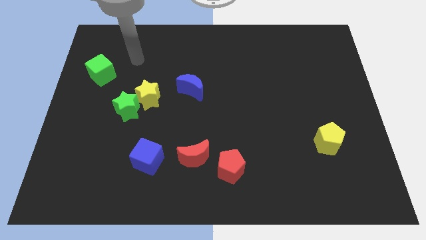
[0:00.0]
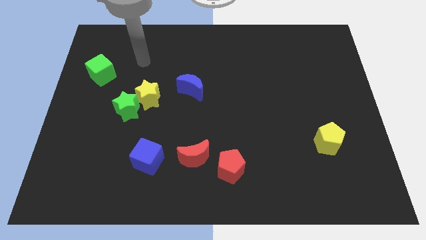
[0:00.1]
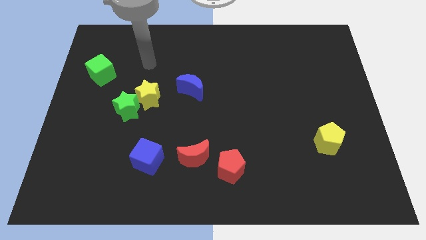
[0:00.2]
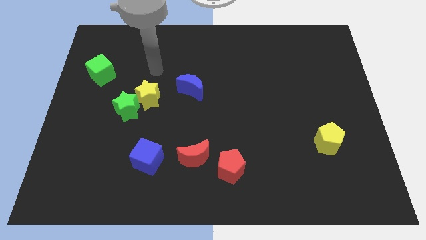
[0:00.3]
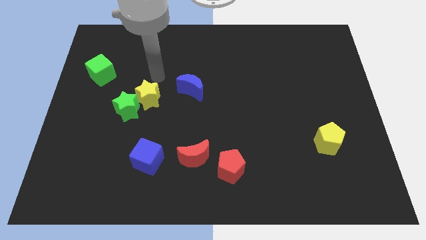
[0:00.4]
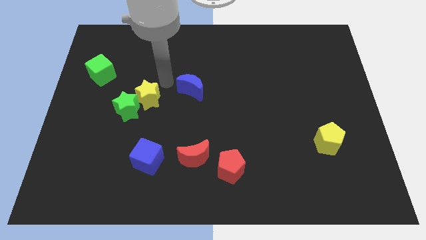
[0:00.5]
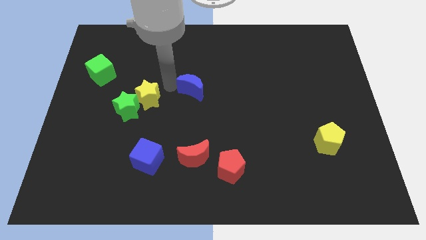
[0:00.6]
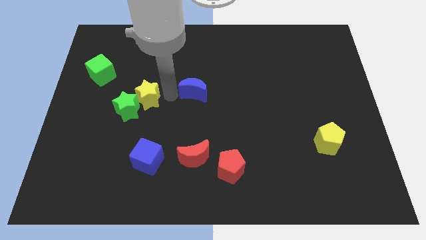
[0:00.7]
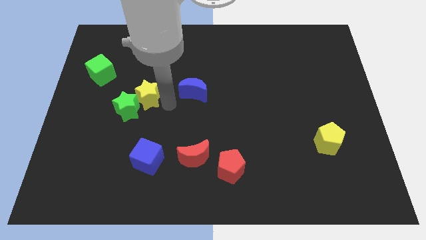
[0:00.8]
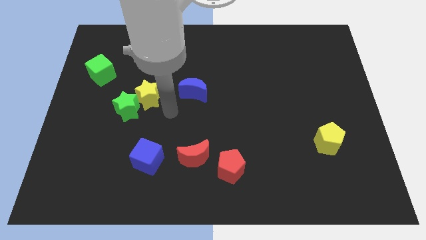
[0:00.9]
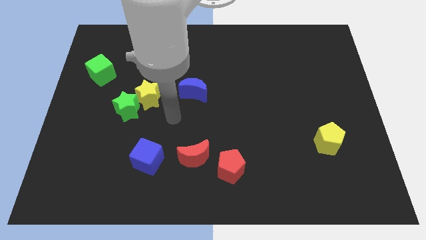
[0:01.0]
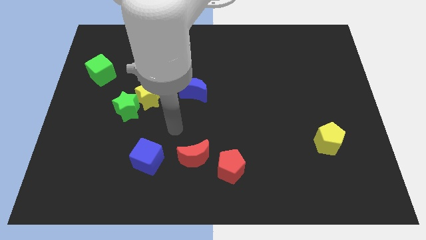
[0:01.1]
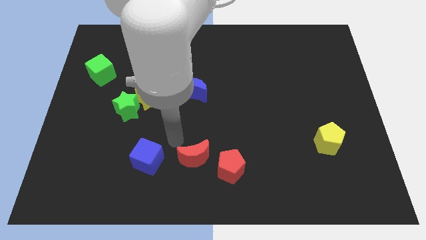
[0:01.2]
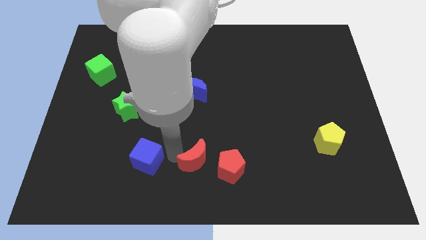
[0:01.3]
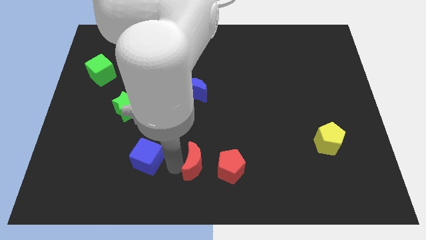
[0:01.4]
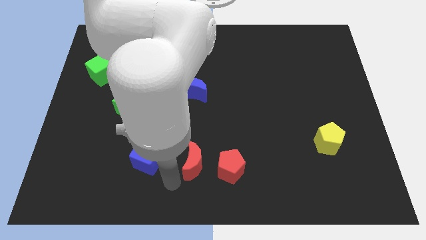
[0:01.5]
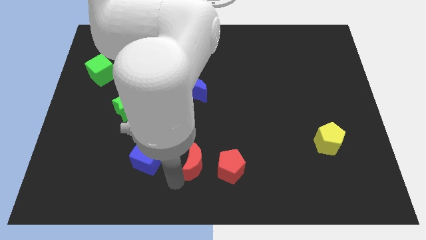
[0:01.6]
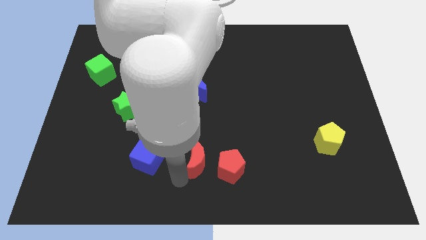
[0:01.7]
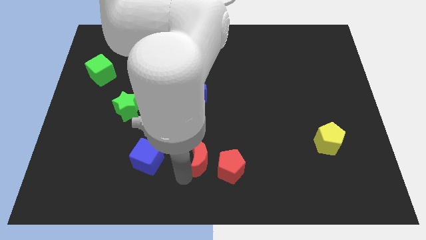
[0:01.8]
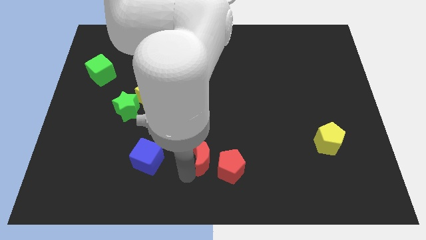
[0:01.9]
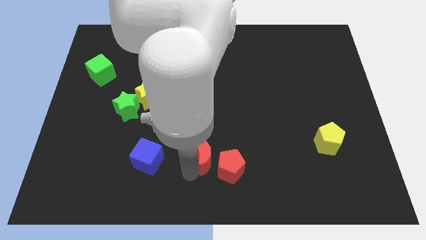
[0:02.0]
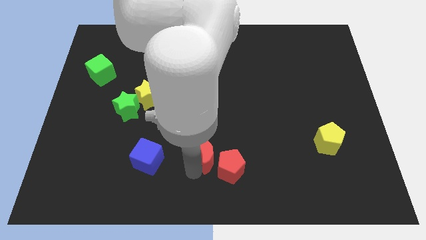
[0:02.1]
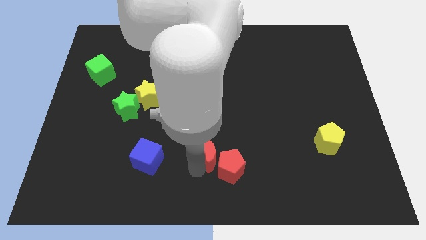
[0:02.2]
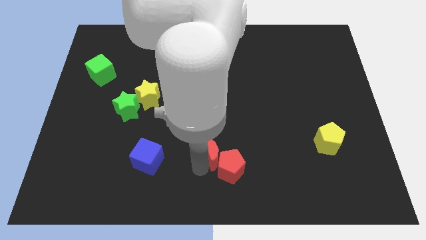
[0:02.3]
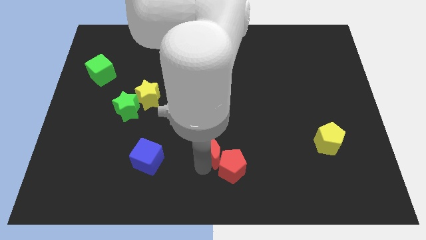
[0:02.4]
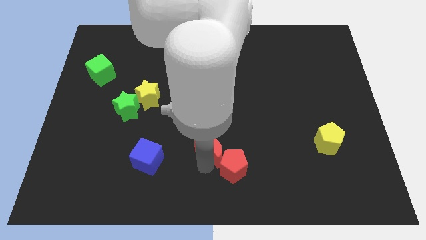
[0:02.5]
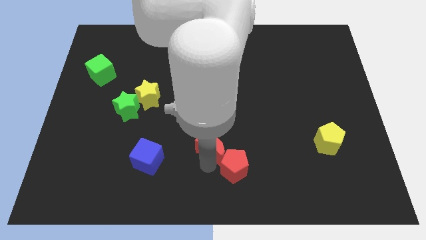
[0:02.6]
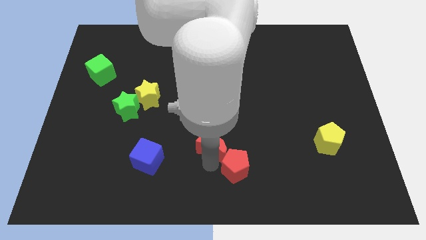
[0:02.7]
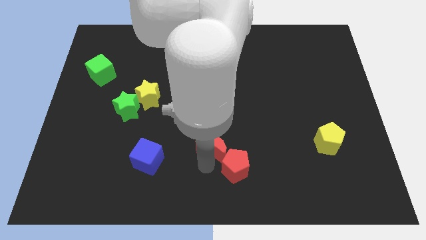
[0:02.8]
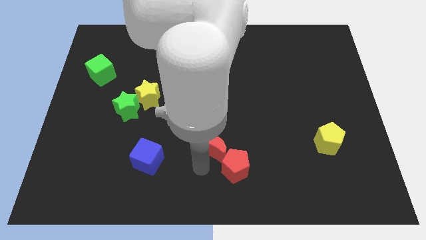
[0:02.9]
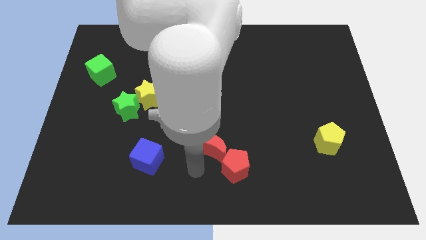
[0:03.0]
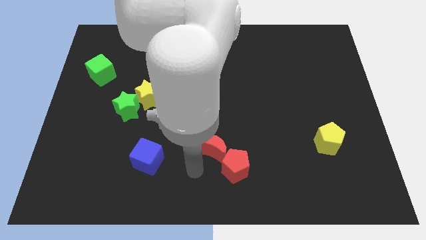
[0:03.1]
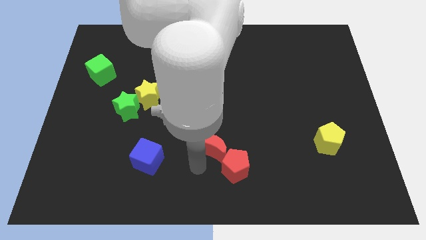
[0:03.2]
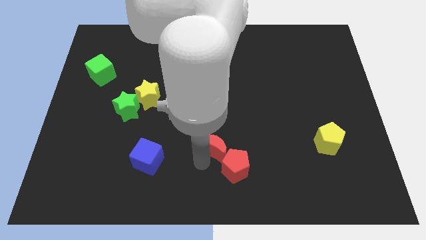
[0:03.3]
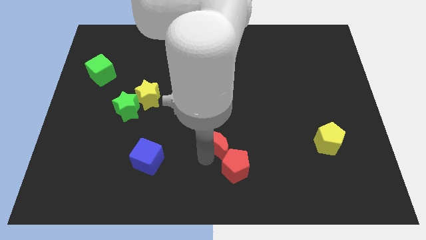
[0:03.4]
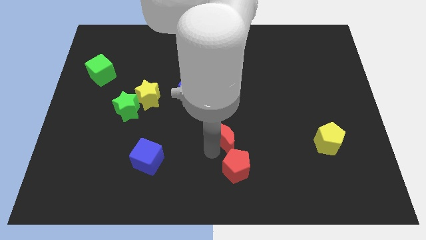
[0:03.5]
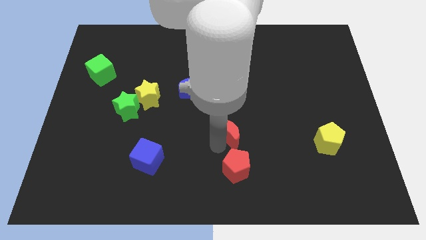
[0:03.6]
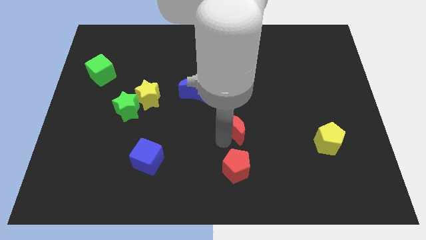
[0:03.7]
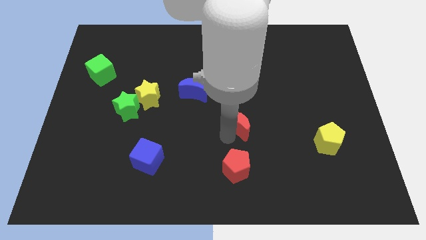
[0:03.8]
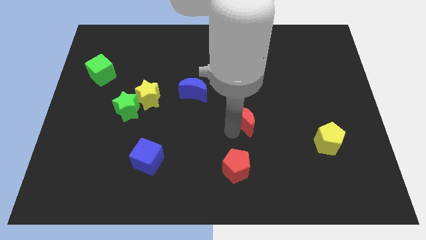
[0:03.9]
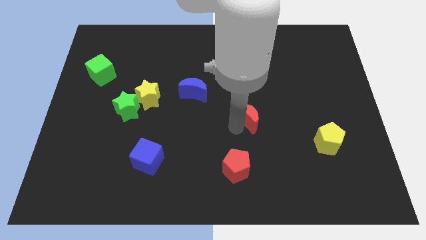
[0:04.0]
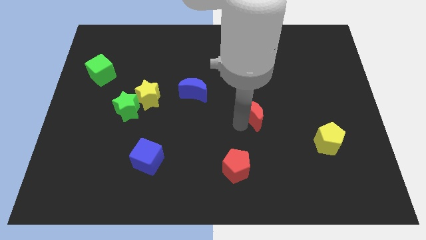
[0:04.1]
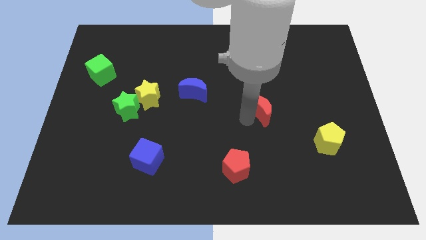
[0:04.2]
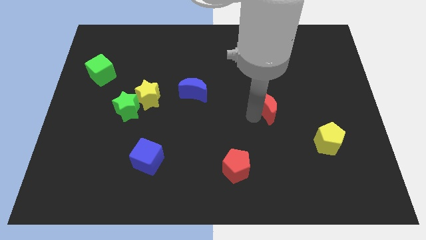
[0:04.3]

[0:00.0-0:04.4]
push the red moon diagonally upwards and to the right

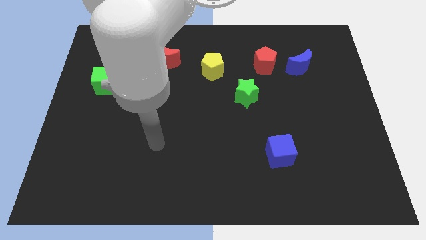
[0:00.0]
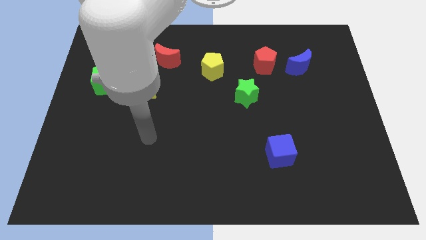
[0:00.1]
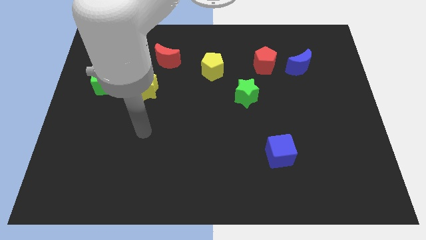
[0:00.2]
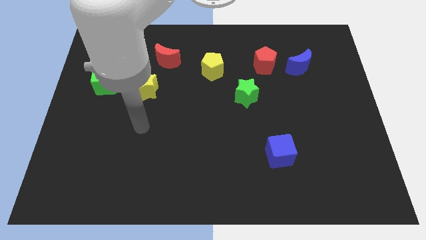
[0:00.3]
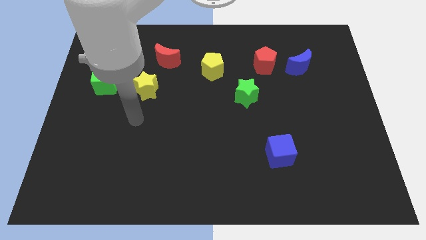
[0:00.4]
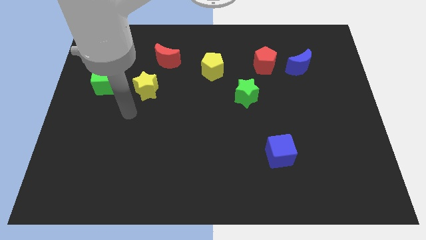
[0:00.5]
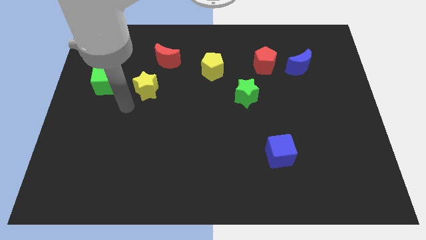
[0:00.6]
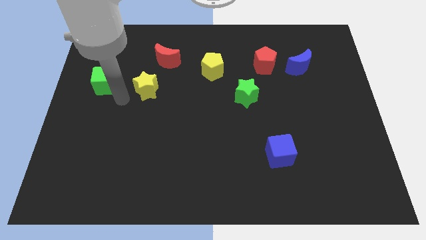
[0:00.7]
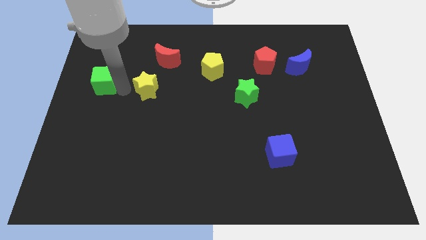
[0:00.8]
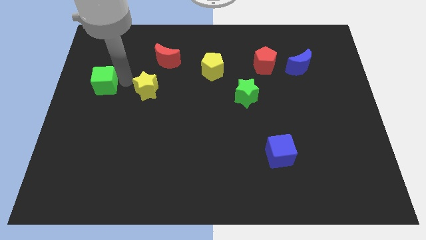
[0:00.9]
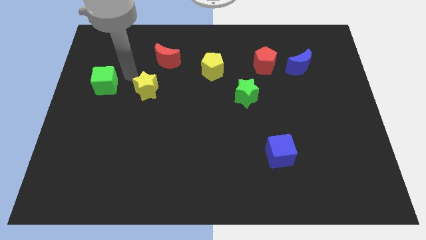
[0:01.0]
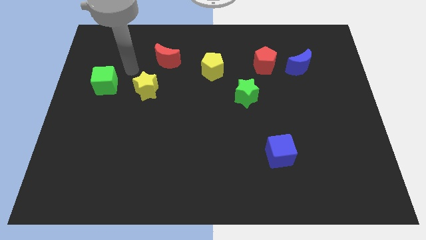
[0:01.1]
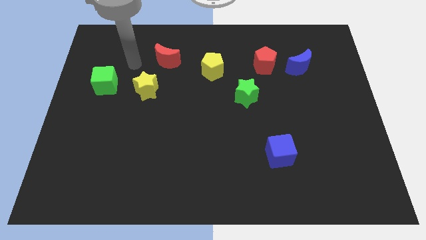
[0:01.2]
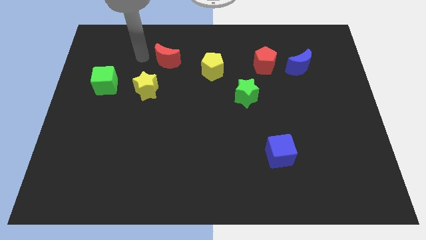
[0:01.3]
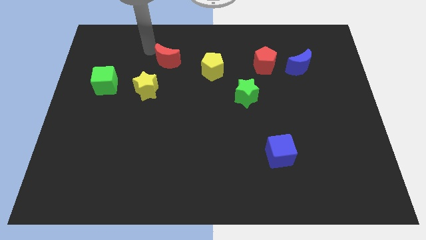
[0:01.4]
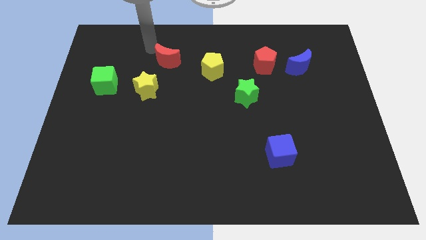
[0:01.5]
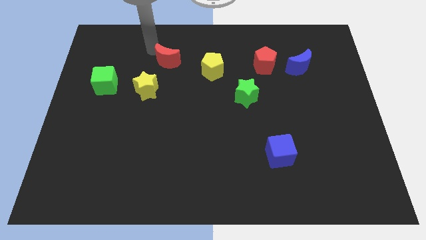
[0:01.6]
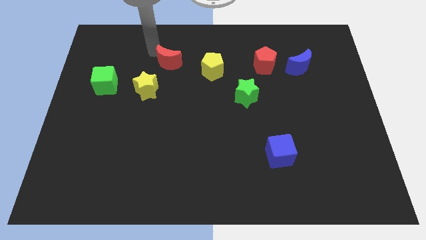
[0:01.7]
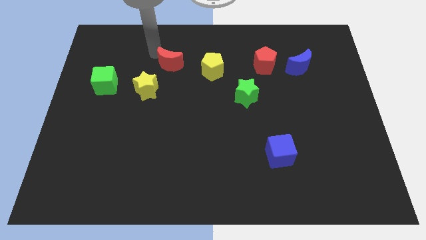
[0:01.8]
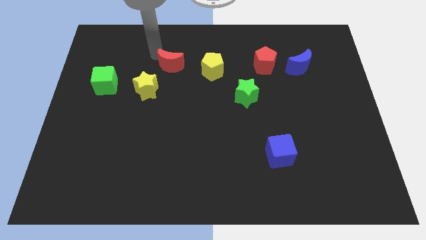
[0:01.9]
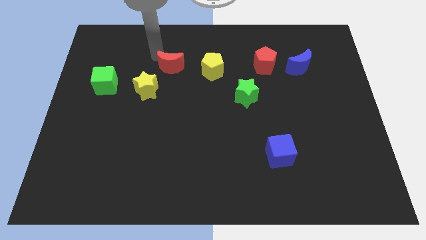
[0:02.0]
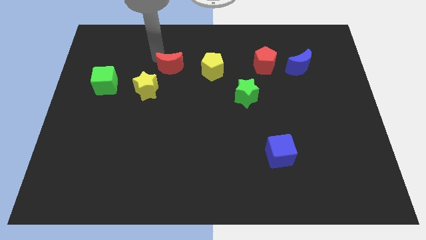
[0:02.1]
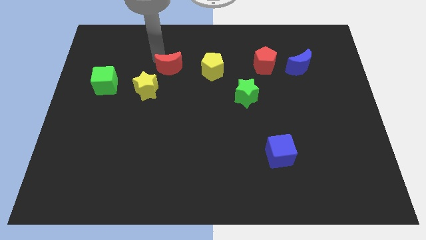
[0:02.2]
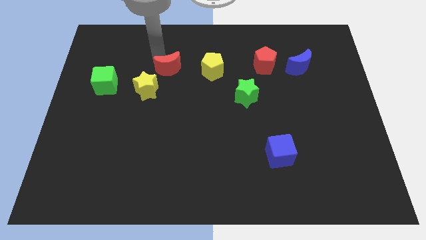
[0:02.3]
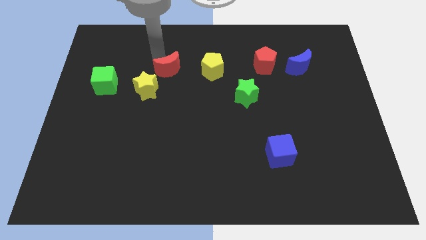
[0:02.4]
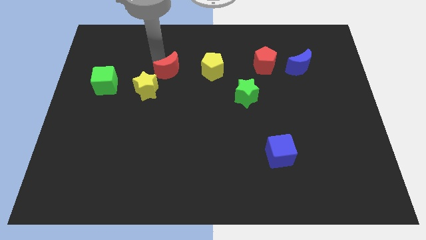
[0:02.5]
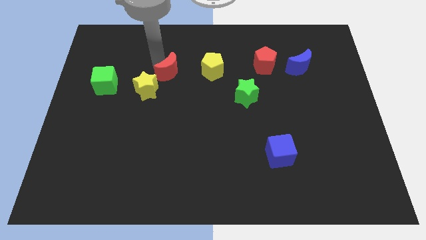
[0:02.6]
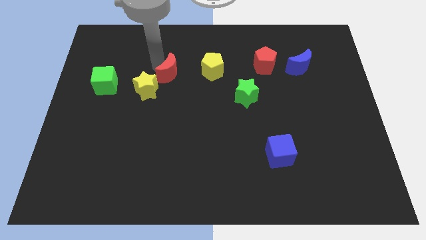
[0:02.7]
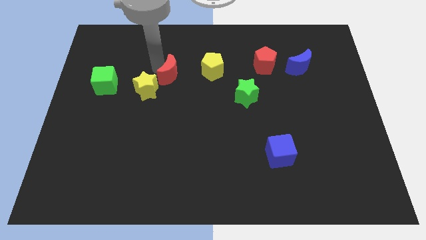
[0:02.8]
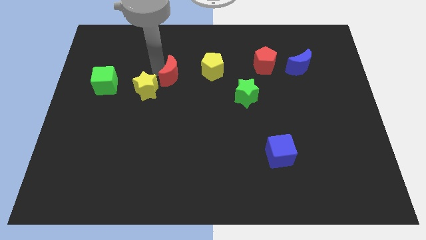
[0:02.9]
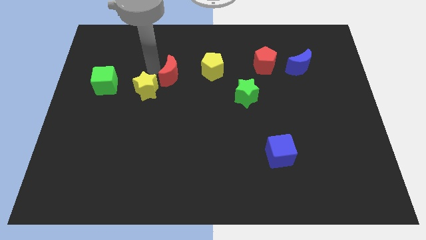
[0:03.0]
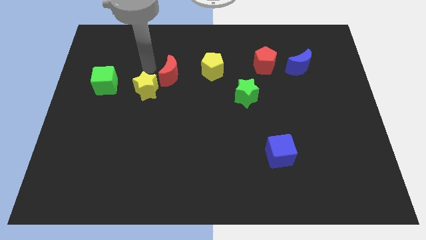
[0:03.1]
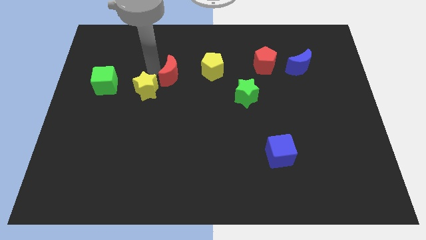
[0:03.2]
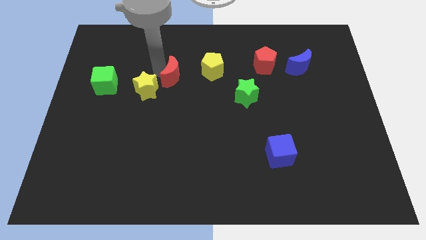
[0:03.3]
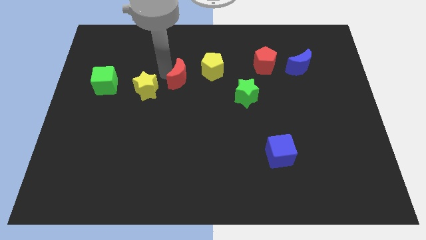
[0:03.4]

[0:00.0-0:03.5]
move the red moon down and right diagonally a little bit

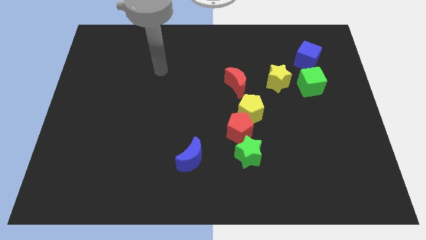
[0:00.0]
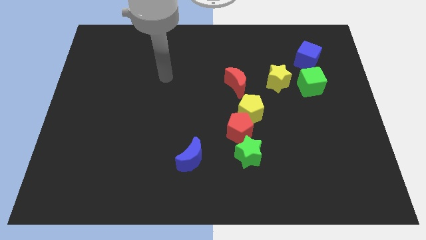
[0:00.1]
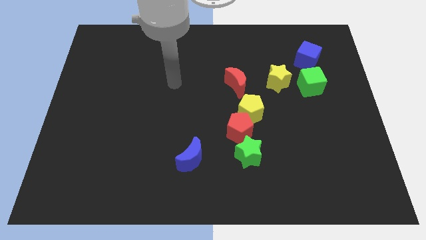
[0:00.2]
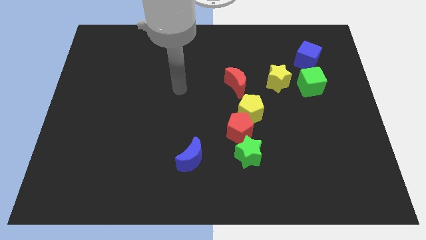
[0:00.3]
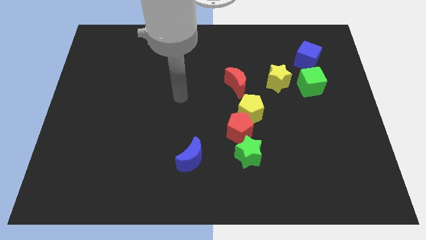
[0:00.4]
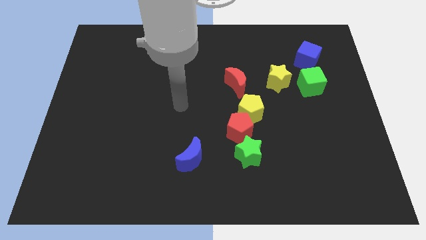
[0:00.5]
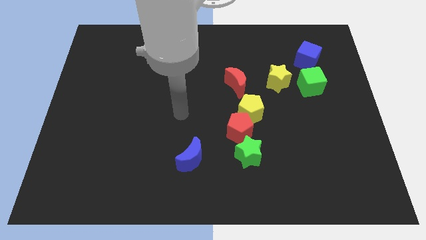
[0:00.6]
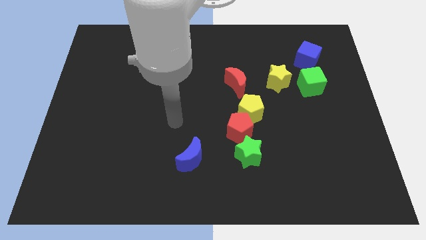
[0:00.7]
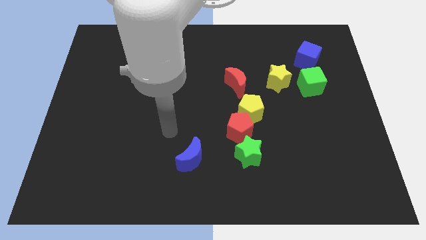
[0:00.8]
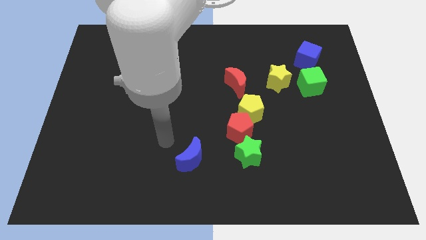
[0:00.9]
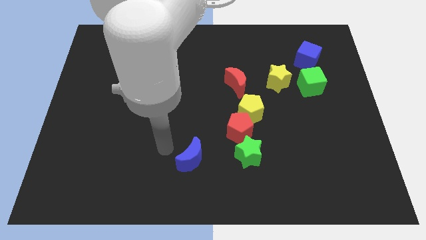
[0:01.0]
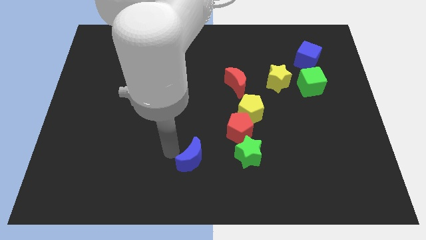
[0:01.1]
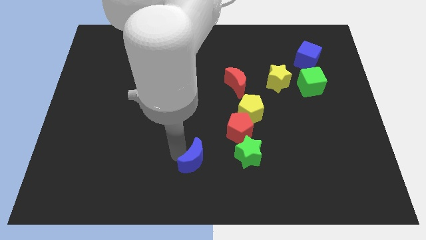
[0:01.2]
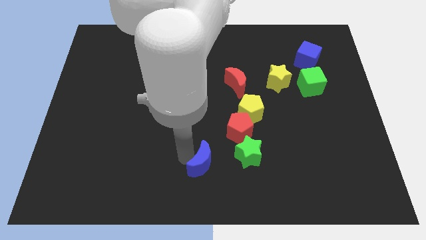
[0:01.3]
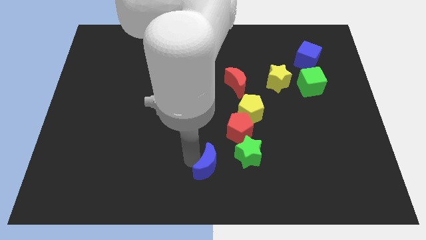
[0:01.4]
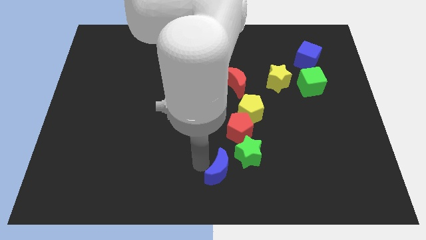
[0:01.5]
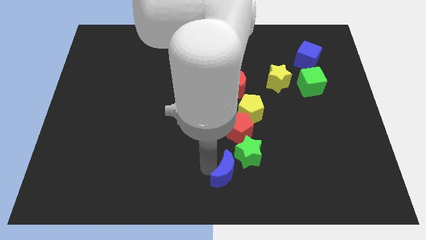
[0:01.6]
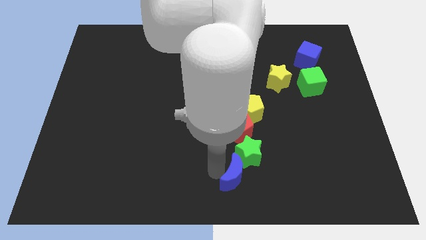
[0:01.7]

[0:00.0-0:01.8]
move the blue moon slightly right
